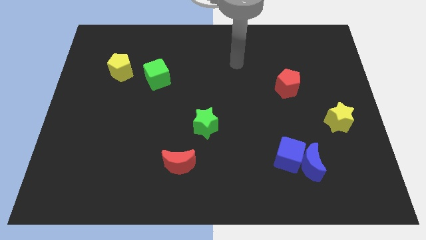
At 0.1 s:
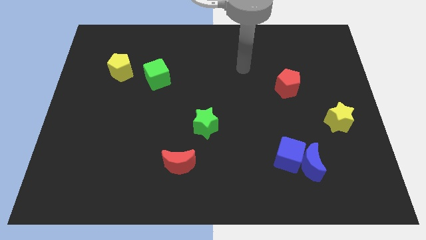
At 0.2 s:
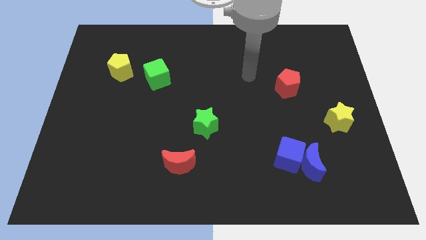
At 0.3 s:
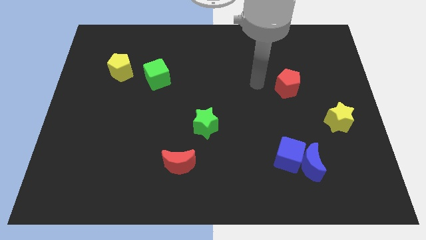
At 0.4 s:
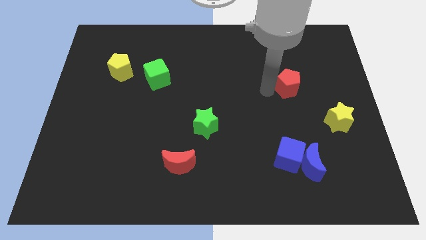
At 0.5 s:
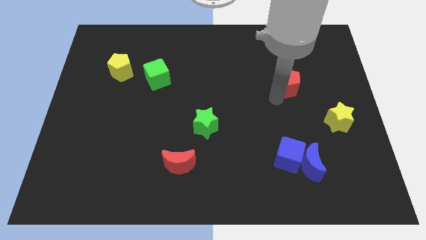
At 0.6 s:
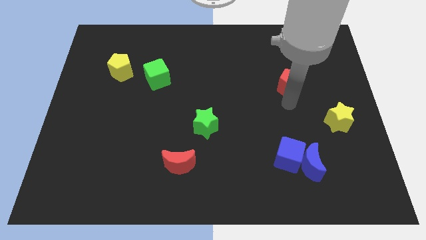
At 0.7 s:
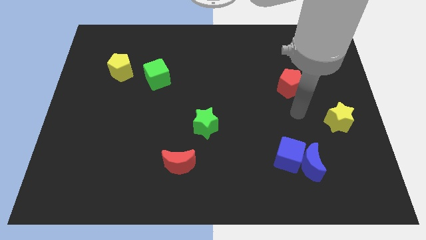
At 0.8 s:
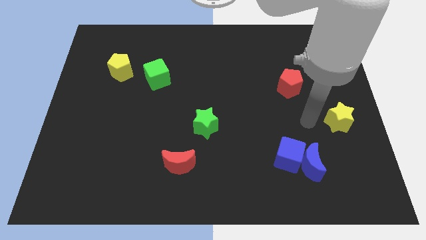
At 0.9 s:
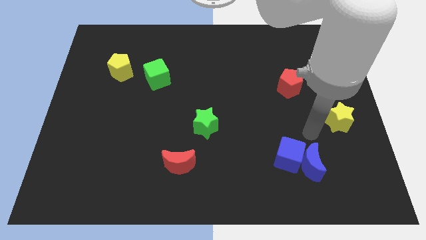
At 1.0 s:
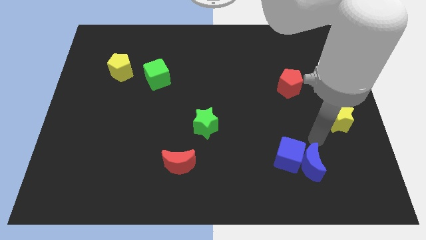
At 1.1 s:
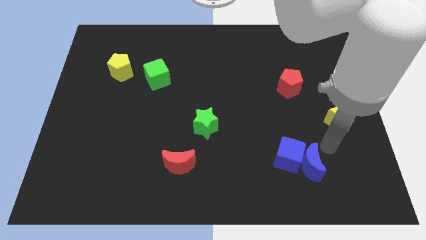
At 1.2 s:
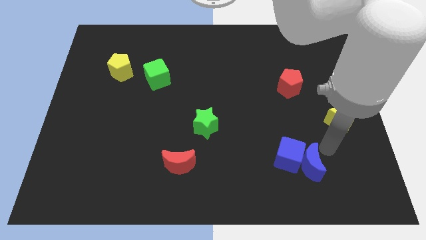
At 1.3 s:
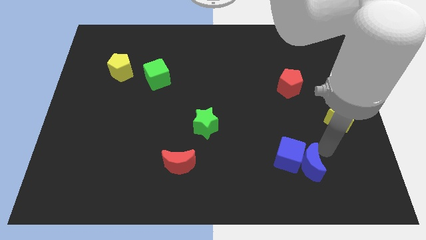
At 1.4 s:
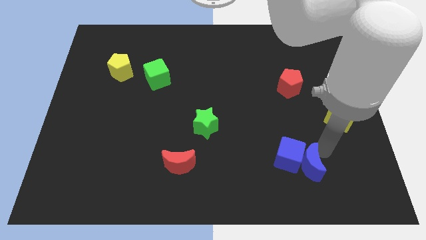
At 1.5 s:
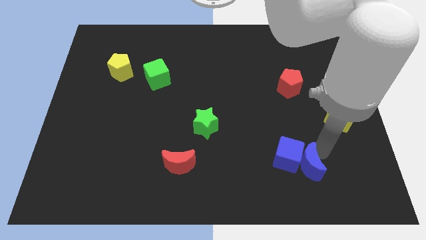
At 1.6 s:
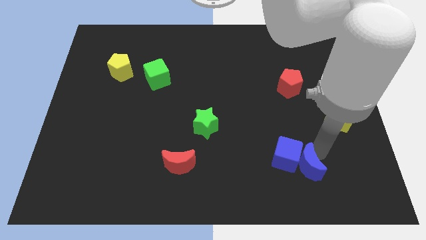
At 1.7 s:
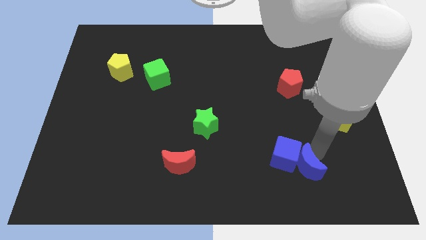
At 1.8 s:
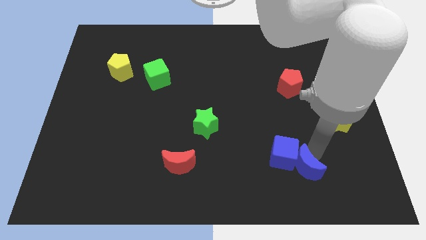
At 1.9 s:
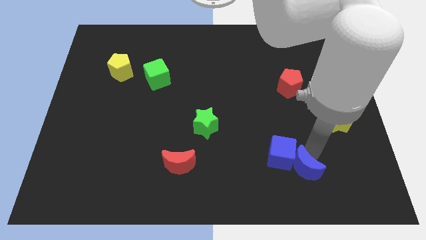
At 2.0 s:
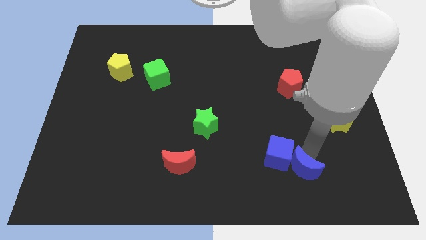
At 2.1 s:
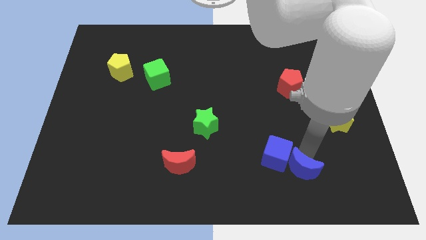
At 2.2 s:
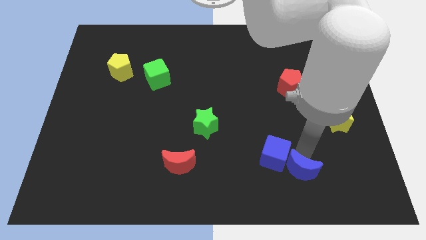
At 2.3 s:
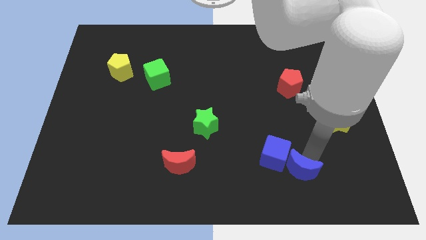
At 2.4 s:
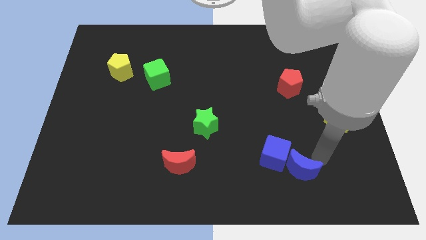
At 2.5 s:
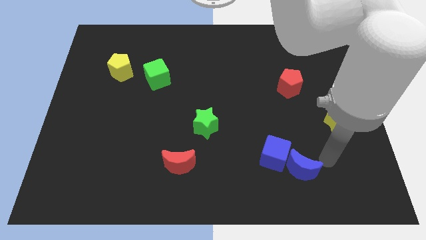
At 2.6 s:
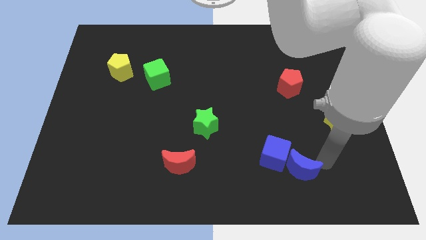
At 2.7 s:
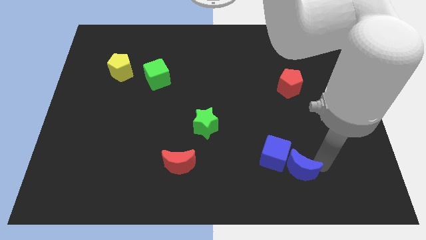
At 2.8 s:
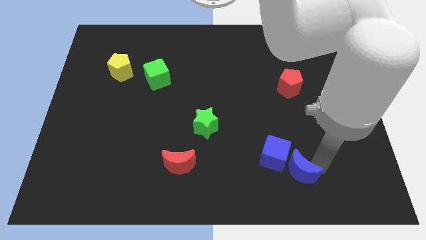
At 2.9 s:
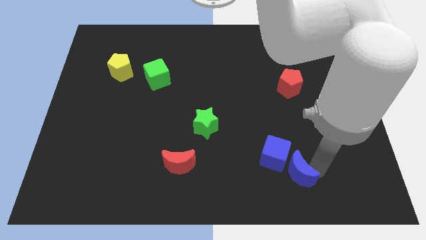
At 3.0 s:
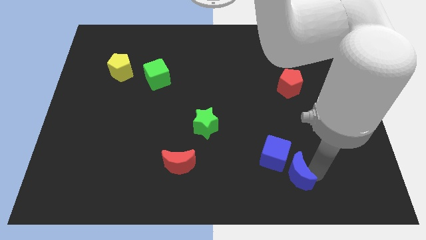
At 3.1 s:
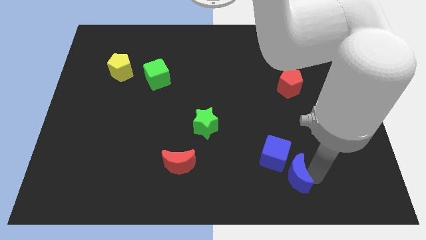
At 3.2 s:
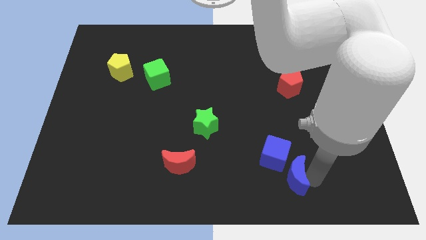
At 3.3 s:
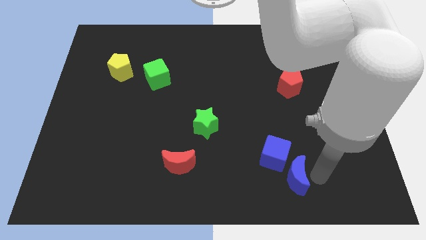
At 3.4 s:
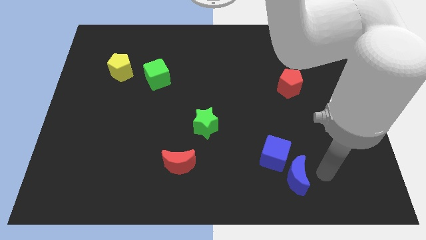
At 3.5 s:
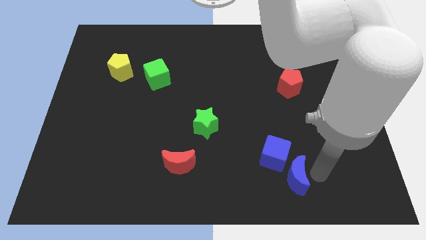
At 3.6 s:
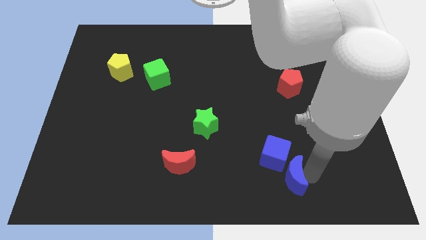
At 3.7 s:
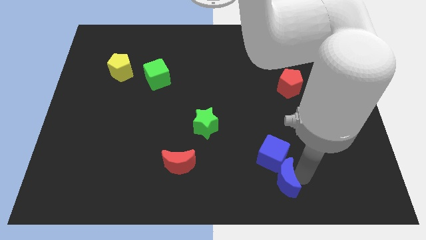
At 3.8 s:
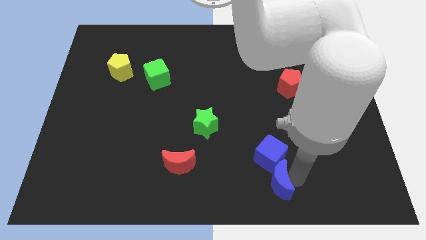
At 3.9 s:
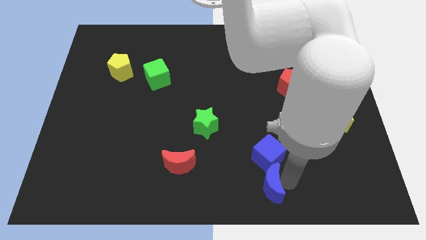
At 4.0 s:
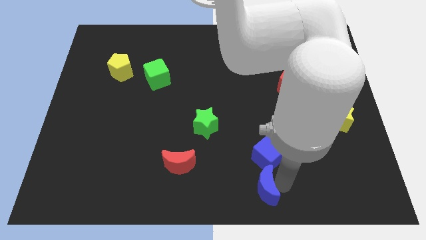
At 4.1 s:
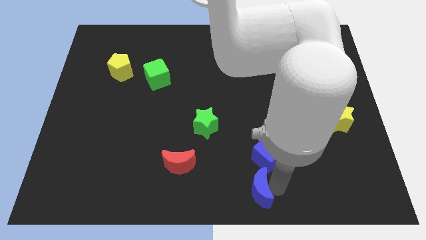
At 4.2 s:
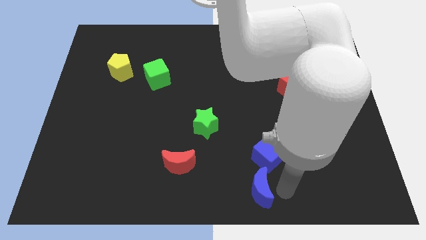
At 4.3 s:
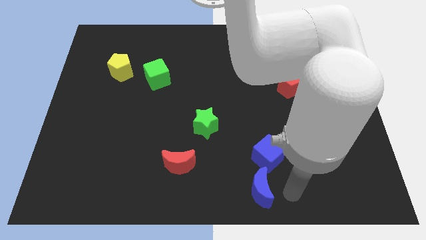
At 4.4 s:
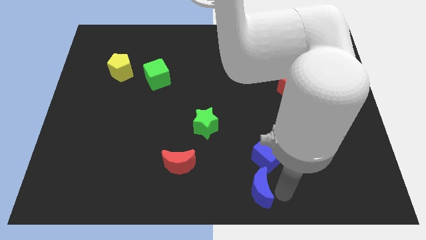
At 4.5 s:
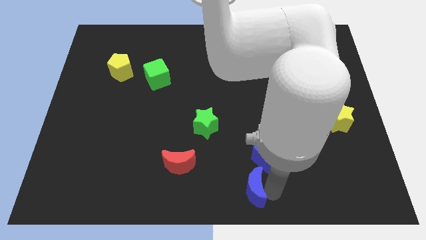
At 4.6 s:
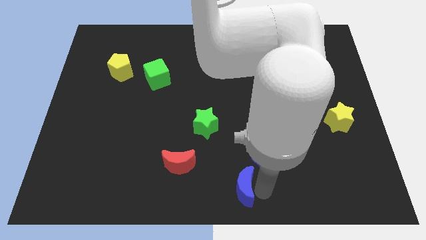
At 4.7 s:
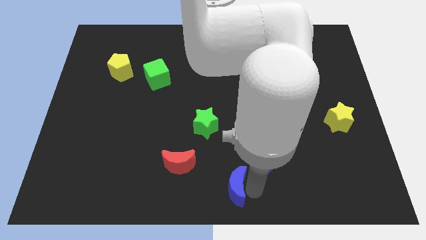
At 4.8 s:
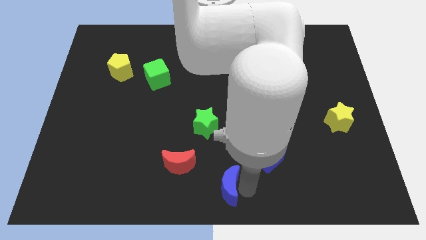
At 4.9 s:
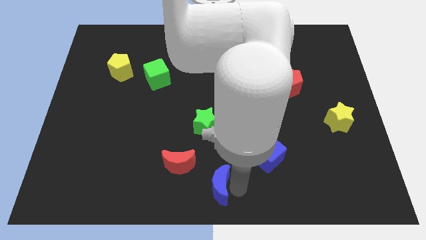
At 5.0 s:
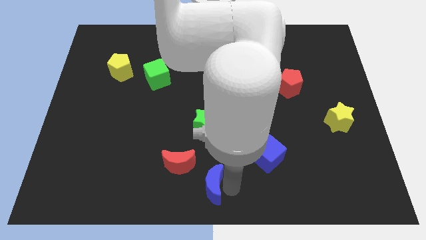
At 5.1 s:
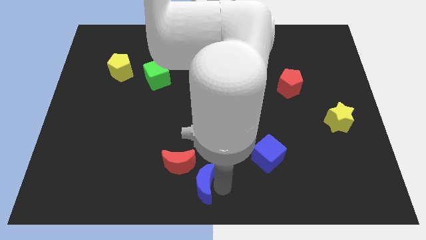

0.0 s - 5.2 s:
push the blue moon left

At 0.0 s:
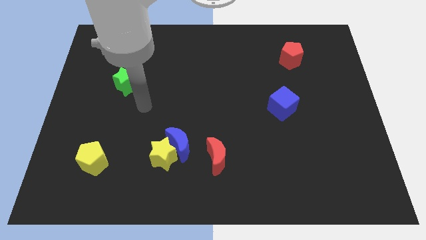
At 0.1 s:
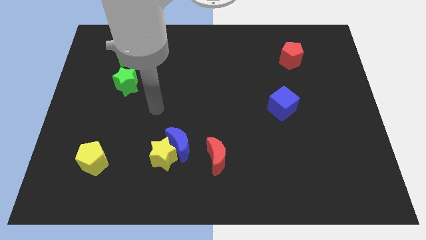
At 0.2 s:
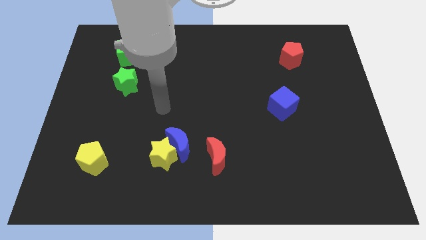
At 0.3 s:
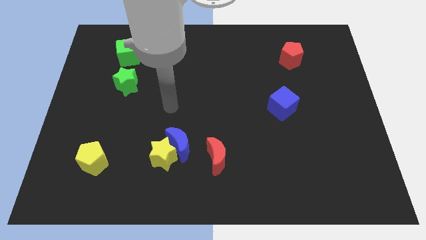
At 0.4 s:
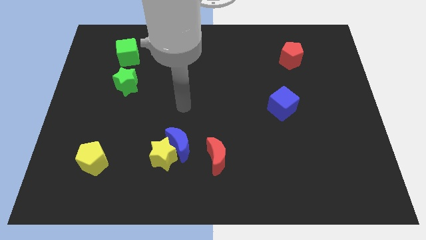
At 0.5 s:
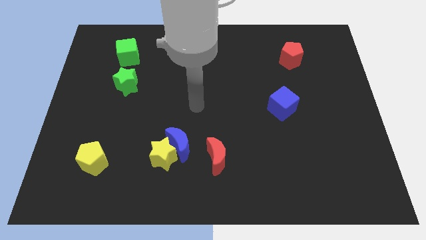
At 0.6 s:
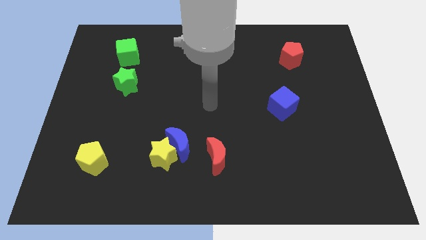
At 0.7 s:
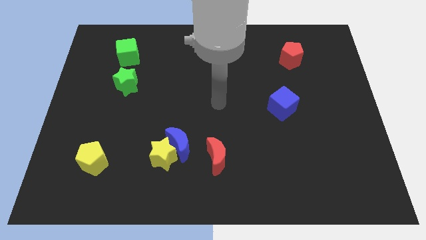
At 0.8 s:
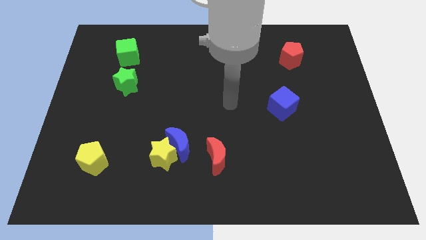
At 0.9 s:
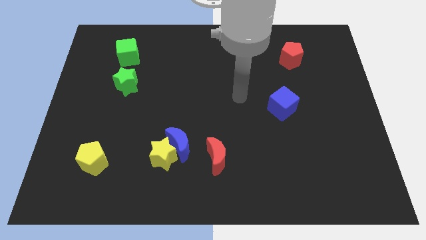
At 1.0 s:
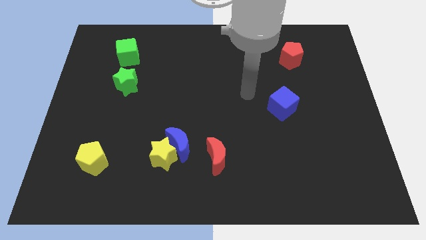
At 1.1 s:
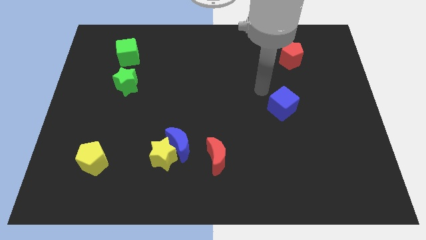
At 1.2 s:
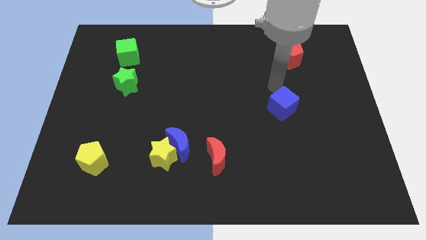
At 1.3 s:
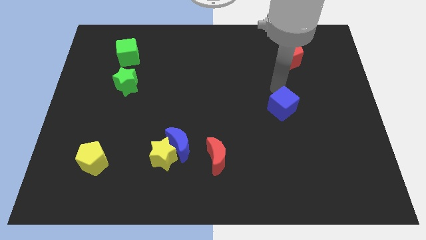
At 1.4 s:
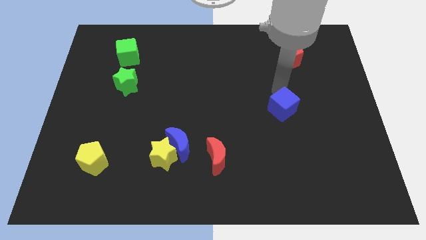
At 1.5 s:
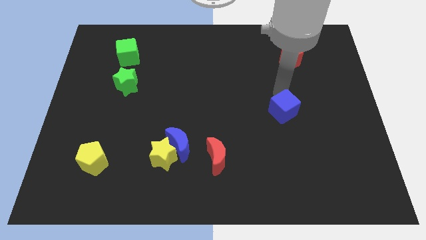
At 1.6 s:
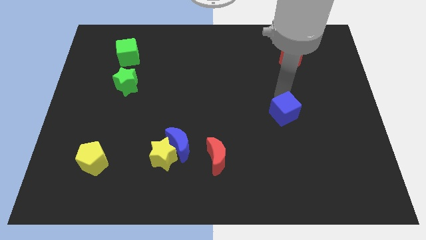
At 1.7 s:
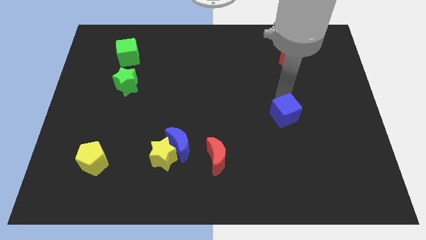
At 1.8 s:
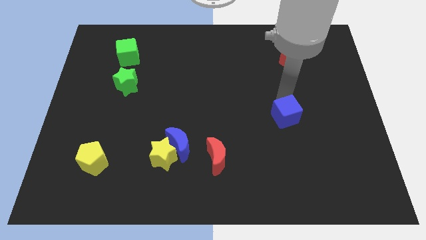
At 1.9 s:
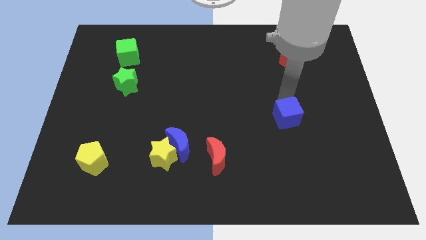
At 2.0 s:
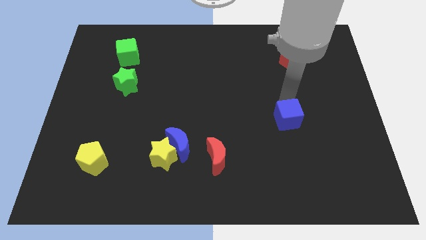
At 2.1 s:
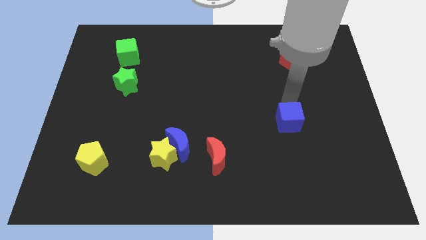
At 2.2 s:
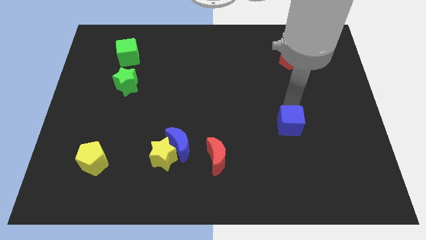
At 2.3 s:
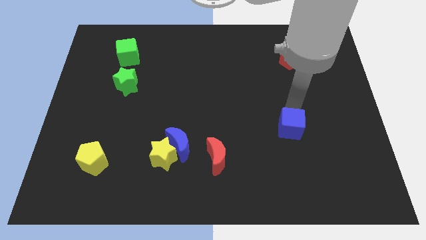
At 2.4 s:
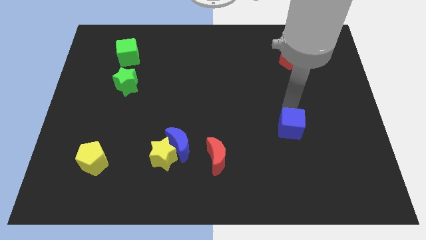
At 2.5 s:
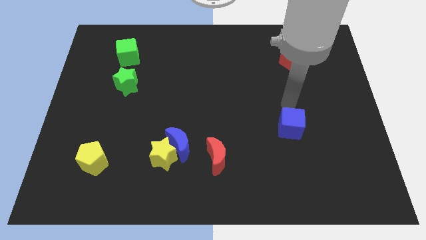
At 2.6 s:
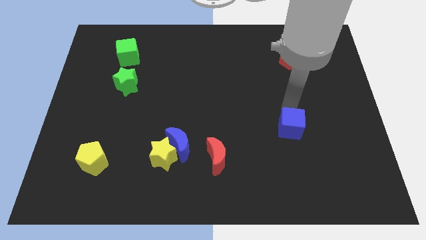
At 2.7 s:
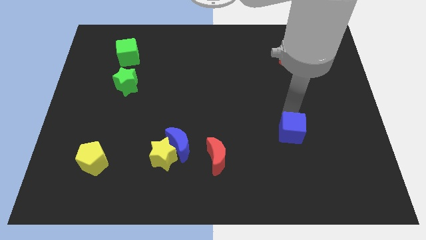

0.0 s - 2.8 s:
move the blue cube down slightly
